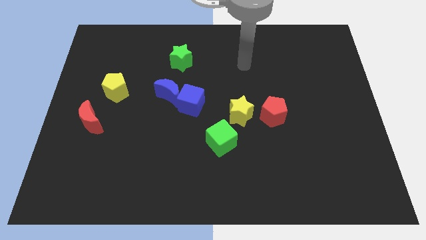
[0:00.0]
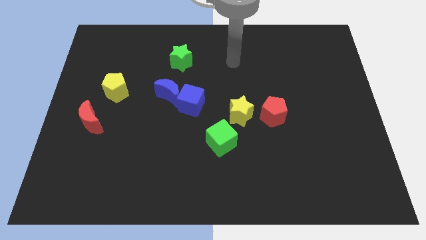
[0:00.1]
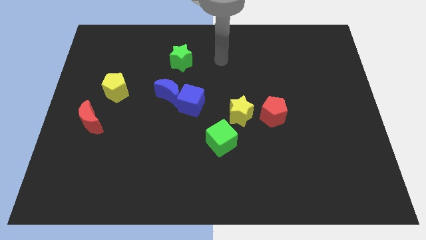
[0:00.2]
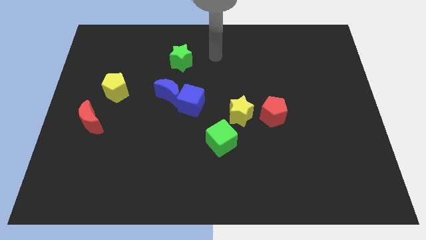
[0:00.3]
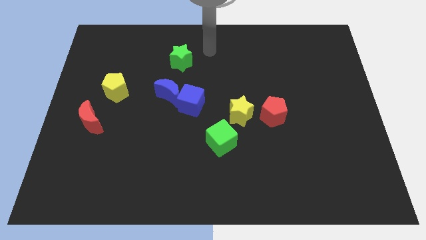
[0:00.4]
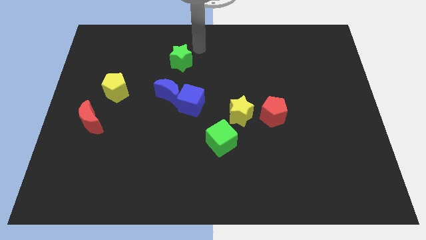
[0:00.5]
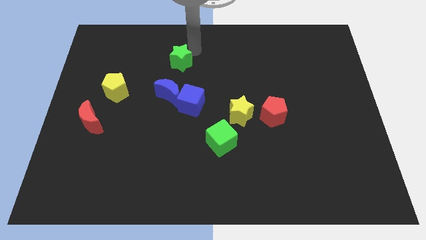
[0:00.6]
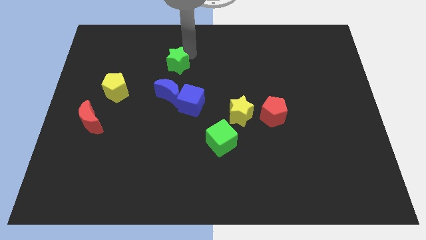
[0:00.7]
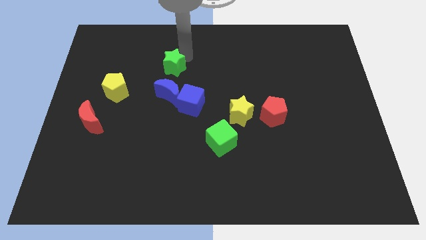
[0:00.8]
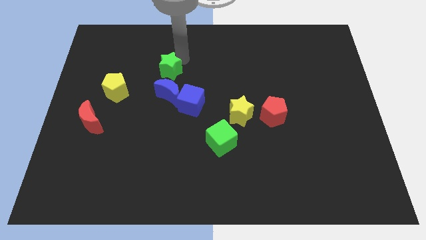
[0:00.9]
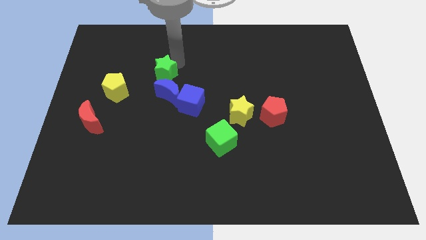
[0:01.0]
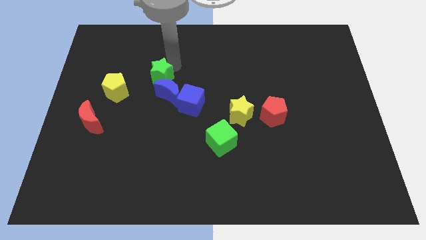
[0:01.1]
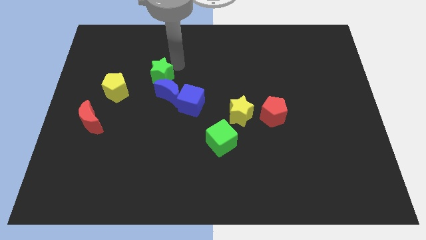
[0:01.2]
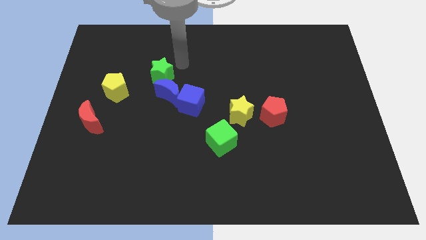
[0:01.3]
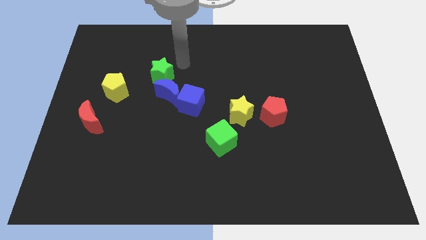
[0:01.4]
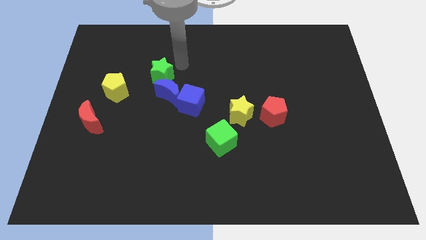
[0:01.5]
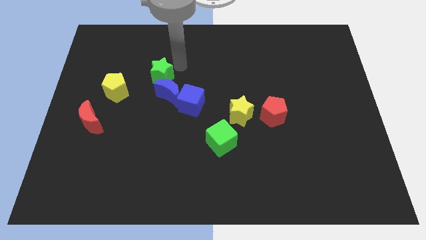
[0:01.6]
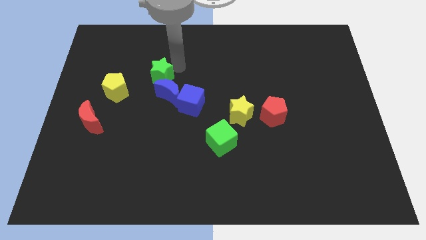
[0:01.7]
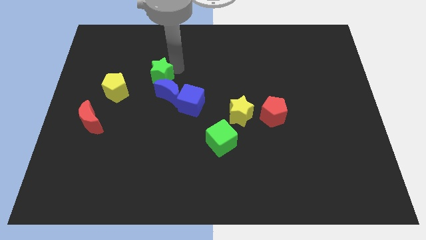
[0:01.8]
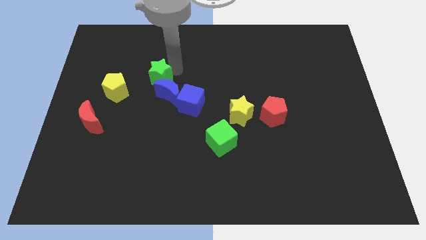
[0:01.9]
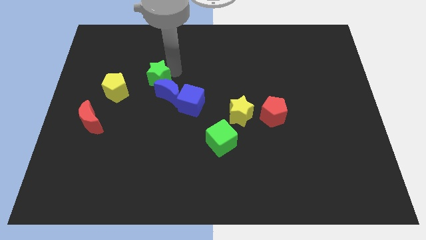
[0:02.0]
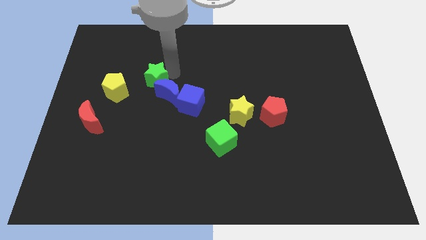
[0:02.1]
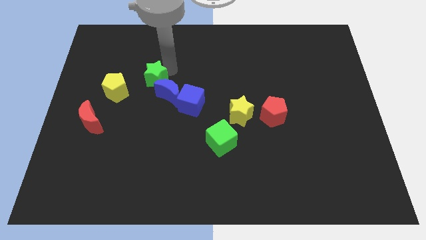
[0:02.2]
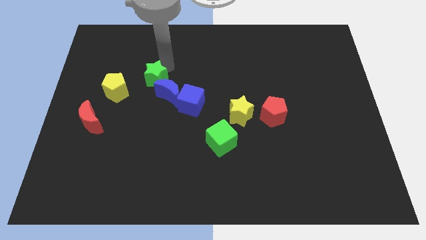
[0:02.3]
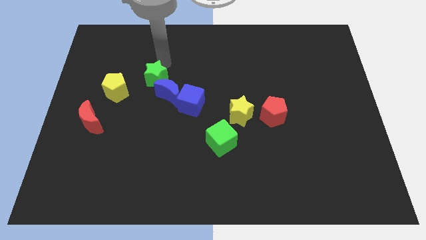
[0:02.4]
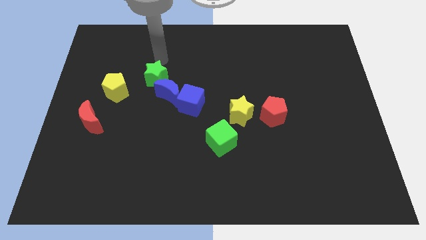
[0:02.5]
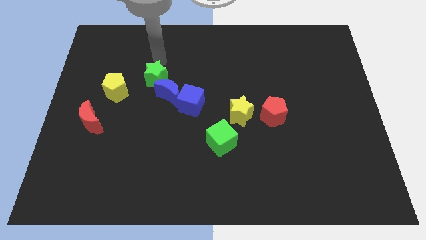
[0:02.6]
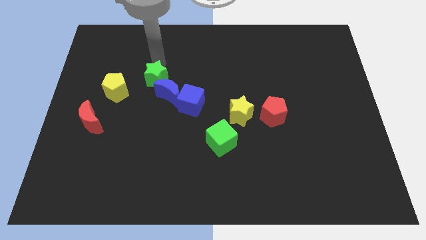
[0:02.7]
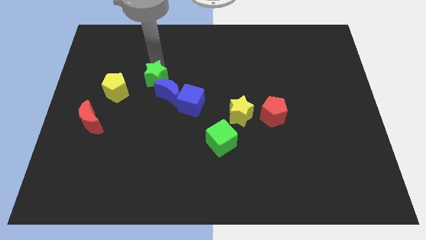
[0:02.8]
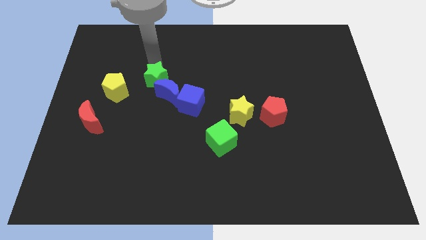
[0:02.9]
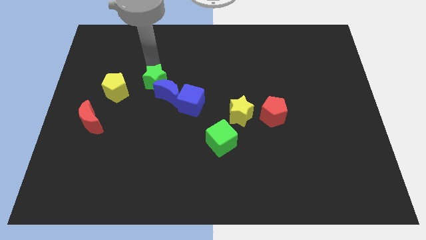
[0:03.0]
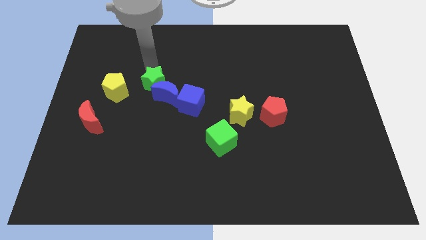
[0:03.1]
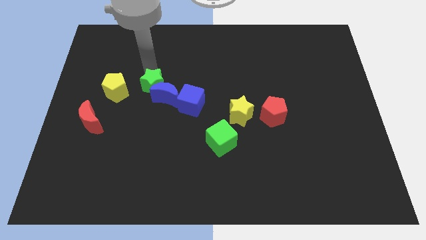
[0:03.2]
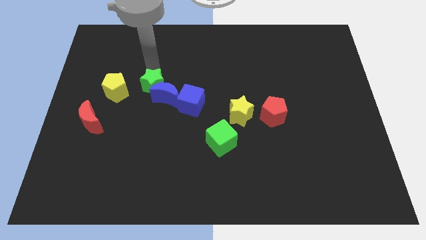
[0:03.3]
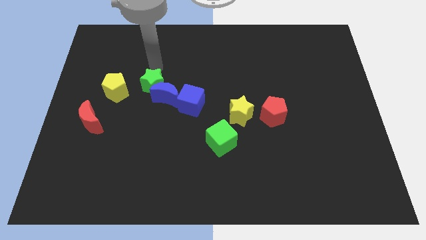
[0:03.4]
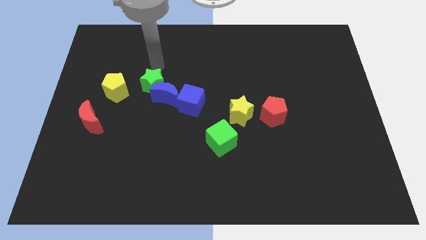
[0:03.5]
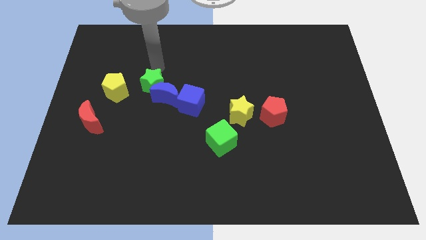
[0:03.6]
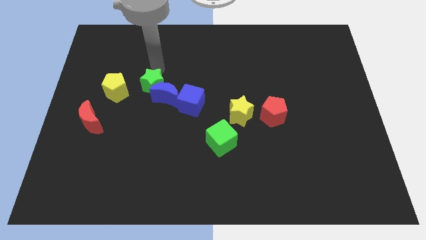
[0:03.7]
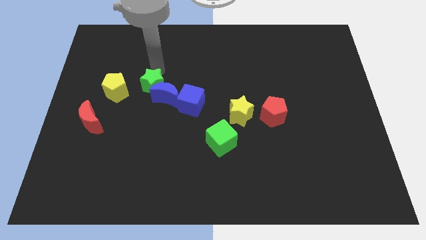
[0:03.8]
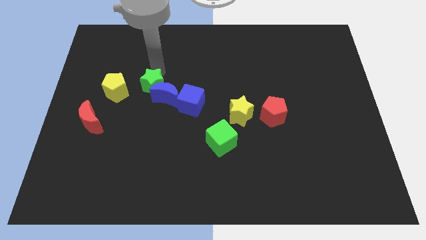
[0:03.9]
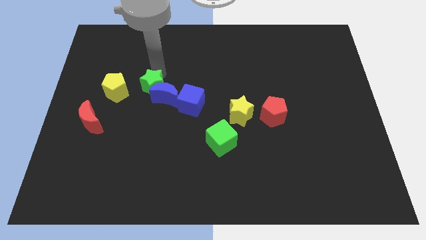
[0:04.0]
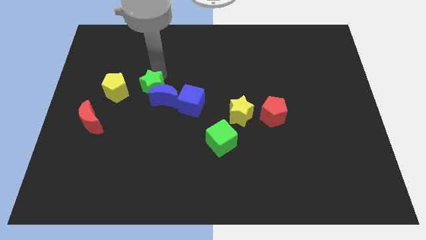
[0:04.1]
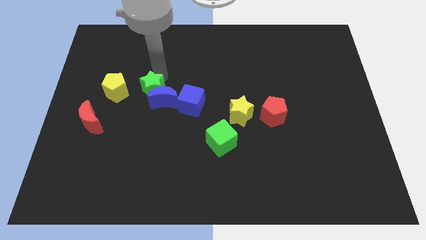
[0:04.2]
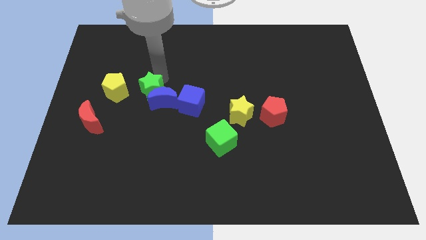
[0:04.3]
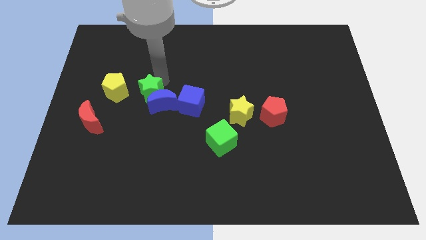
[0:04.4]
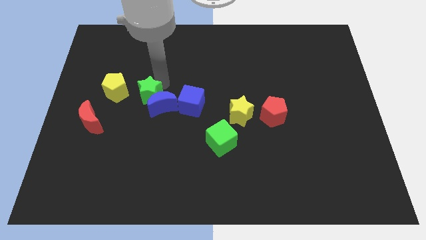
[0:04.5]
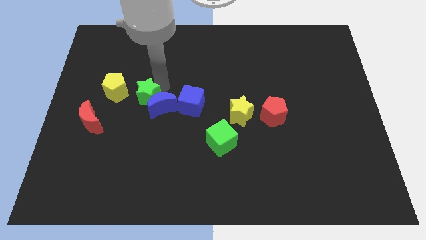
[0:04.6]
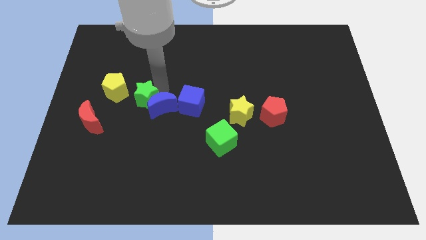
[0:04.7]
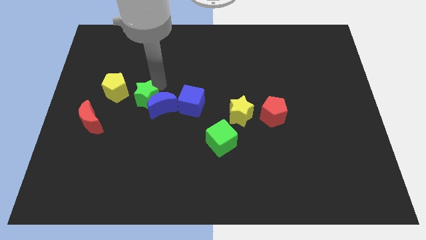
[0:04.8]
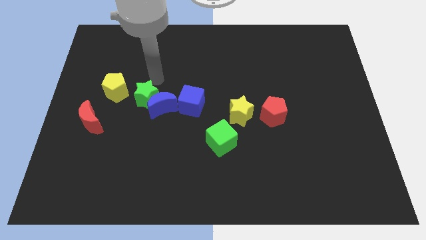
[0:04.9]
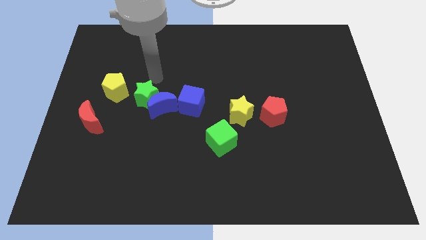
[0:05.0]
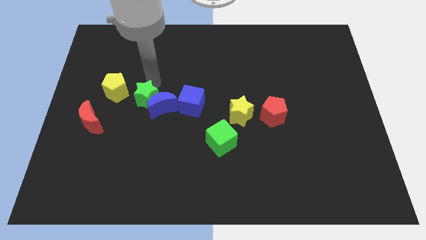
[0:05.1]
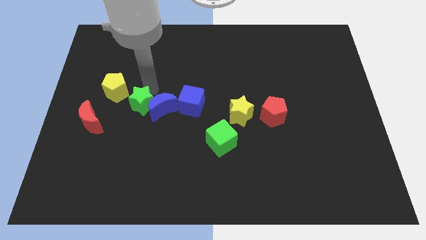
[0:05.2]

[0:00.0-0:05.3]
push the green star to the bottom left of the blue moon

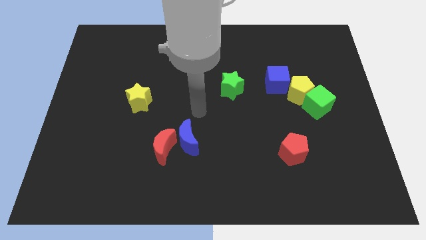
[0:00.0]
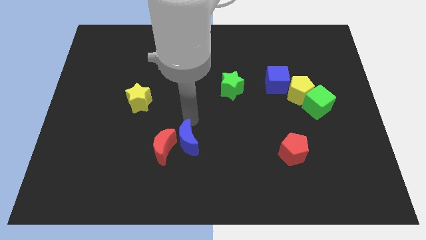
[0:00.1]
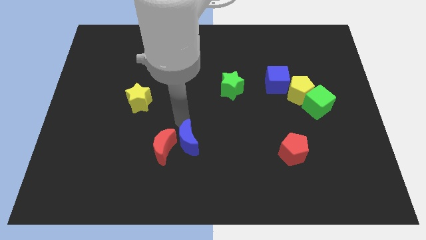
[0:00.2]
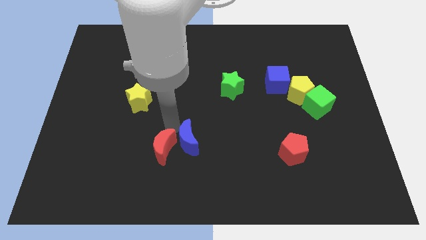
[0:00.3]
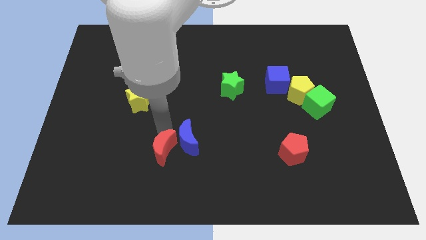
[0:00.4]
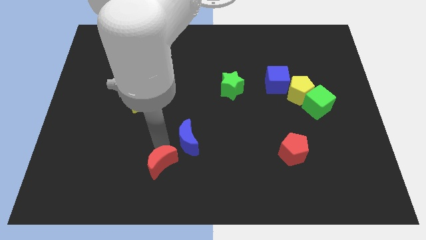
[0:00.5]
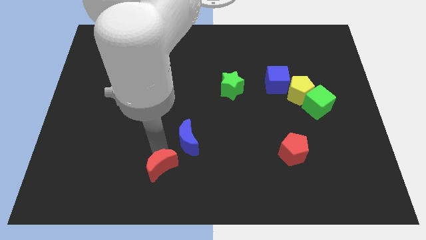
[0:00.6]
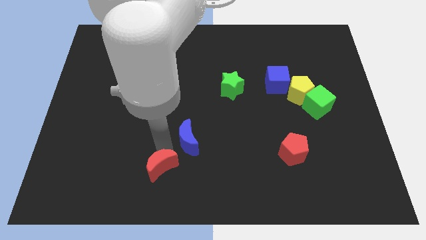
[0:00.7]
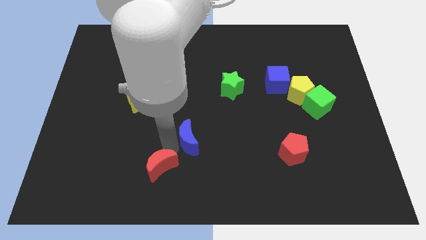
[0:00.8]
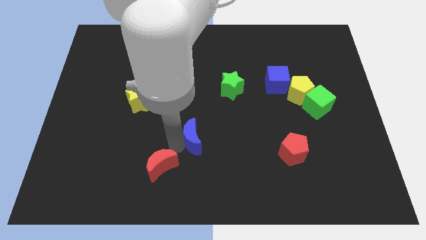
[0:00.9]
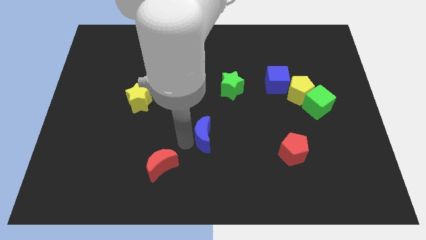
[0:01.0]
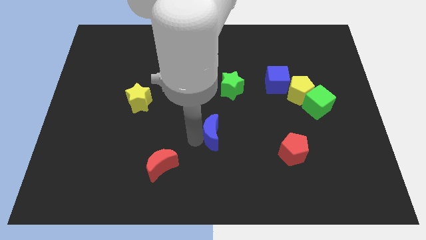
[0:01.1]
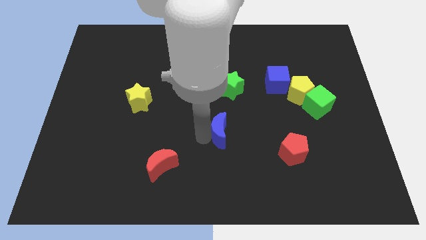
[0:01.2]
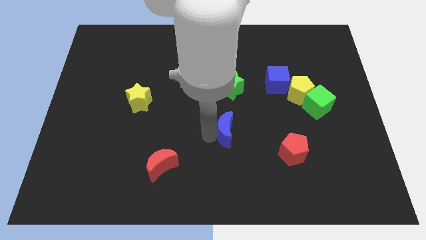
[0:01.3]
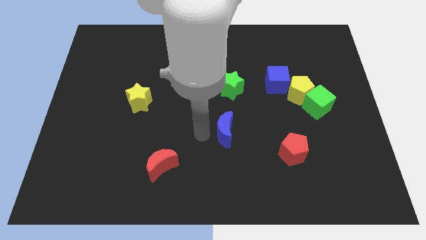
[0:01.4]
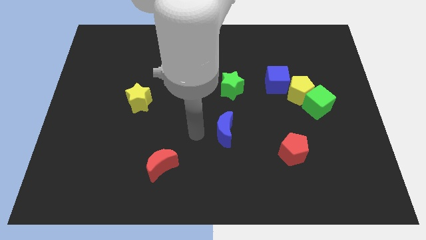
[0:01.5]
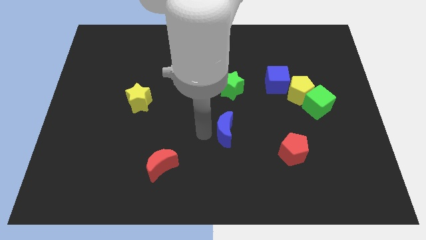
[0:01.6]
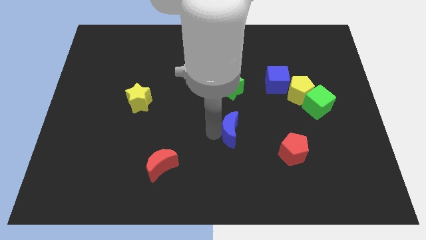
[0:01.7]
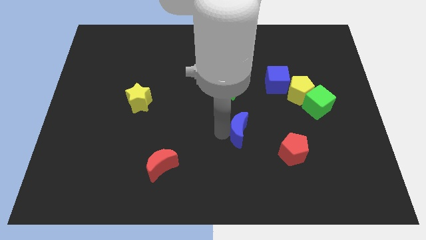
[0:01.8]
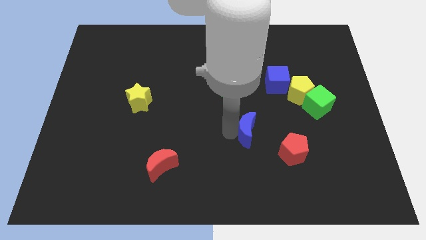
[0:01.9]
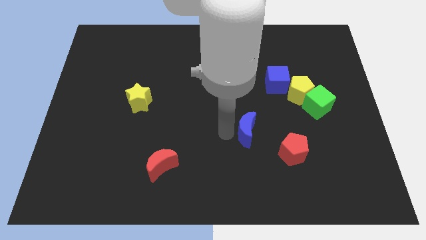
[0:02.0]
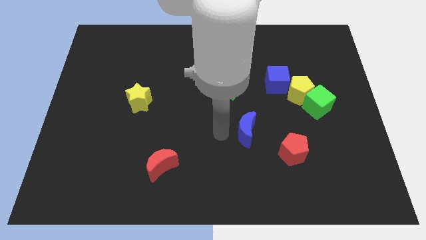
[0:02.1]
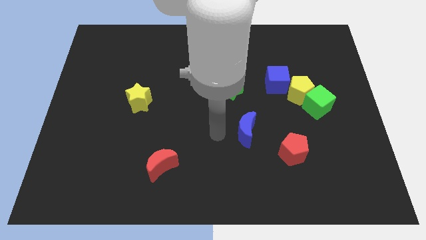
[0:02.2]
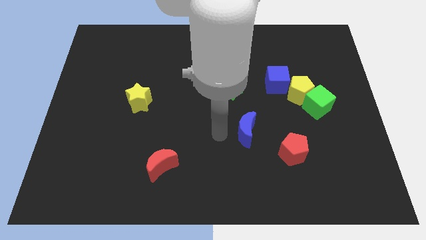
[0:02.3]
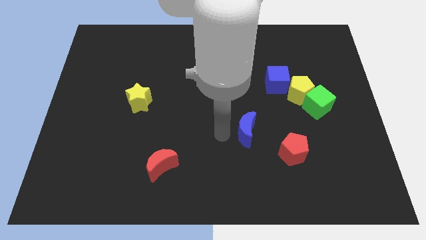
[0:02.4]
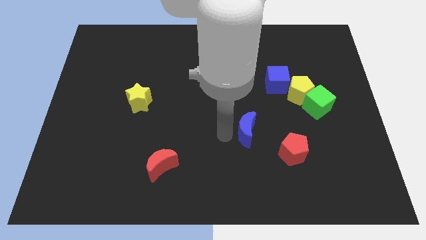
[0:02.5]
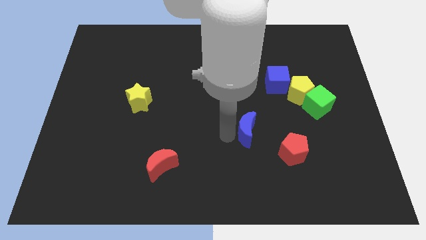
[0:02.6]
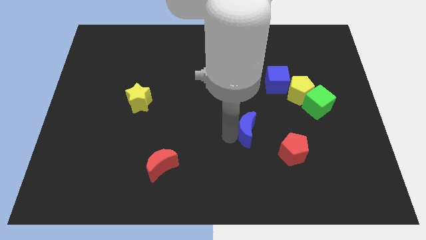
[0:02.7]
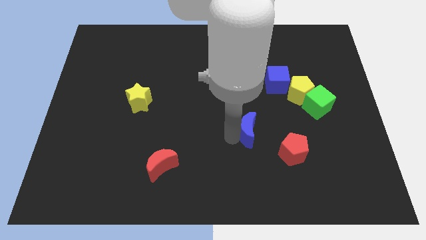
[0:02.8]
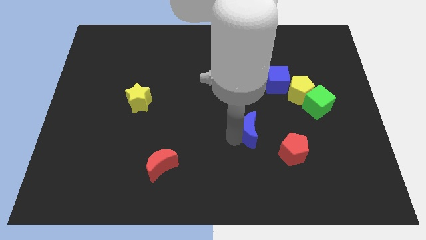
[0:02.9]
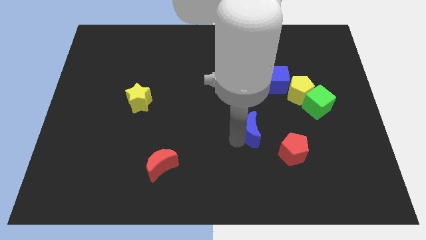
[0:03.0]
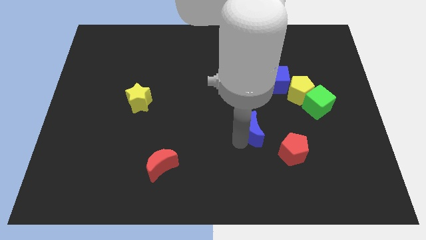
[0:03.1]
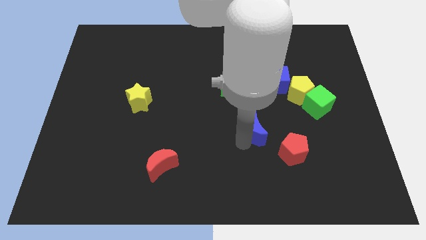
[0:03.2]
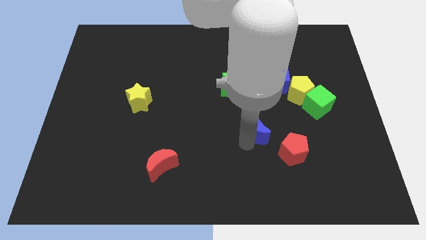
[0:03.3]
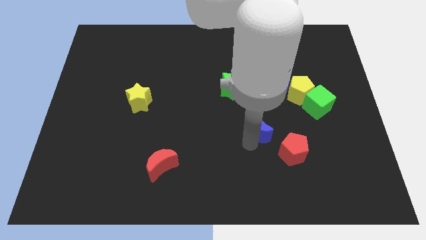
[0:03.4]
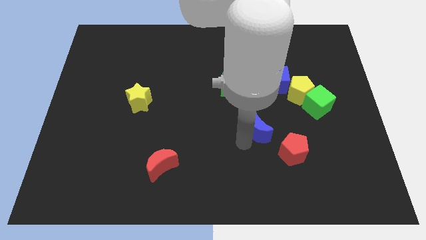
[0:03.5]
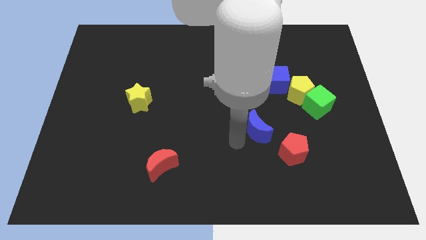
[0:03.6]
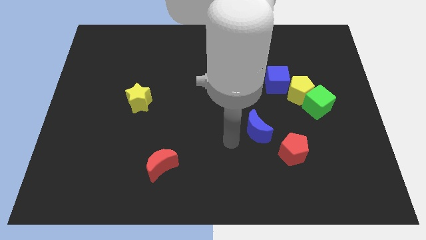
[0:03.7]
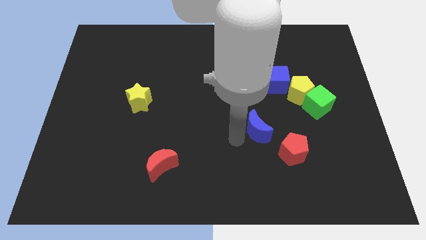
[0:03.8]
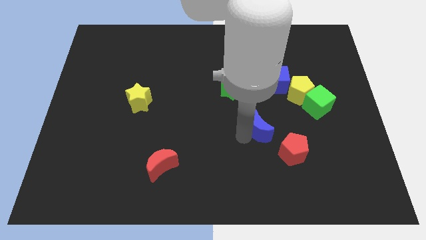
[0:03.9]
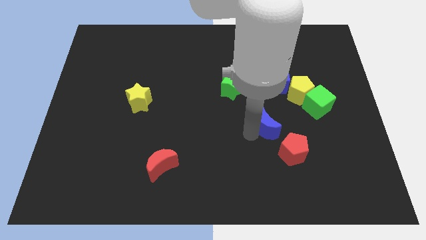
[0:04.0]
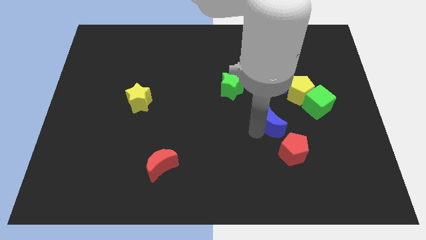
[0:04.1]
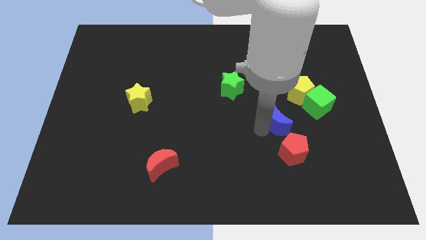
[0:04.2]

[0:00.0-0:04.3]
put the blue moon to the bottom left side of the green cube
